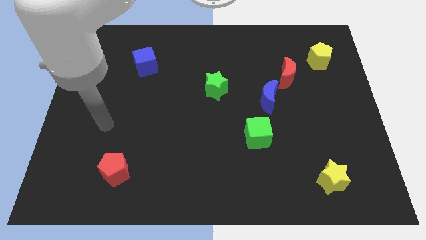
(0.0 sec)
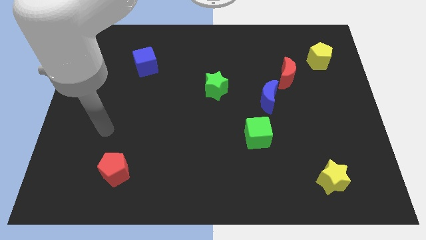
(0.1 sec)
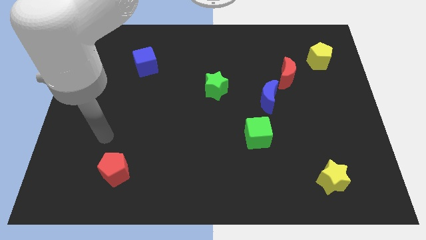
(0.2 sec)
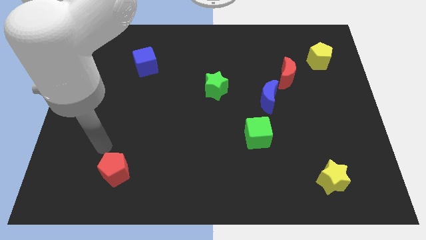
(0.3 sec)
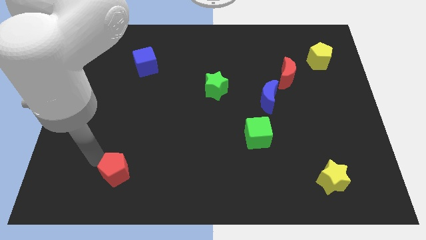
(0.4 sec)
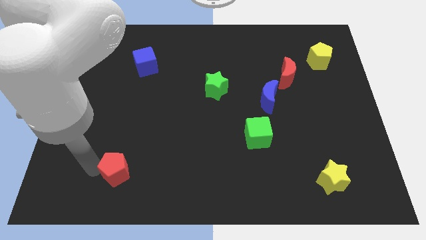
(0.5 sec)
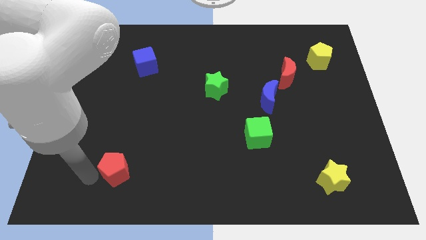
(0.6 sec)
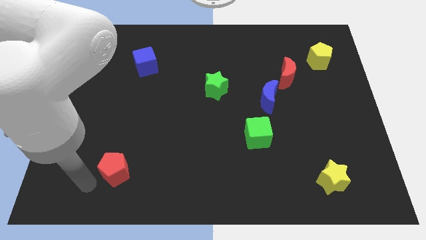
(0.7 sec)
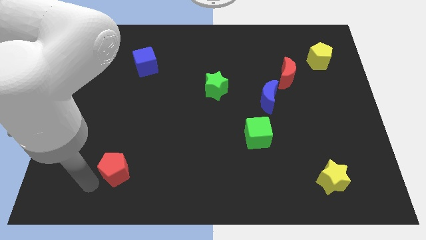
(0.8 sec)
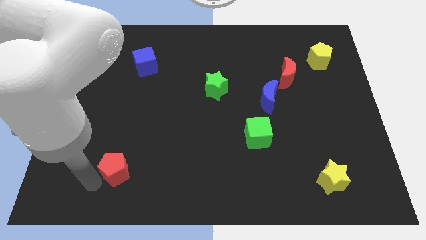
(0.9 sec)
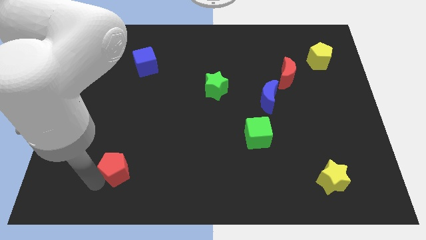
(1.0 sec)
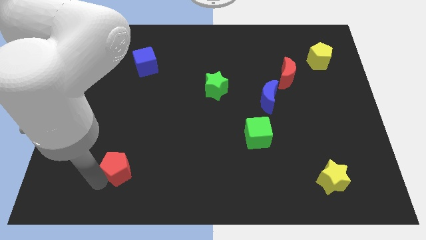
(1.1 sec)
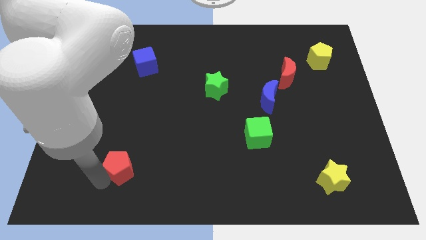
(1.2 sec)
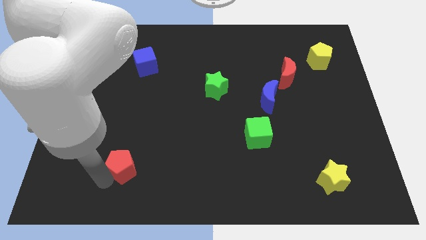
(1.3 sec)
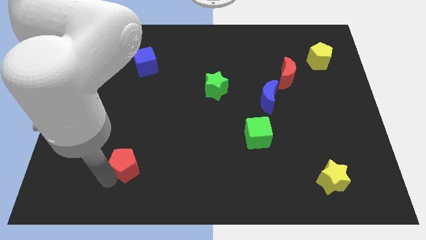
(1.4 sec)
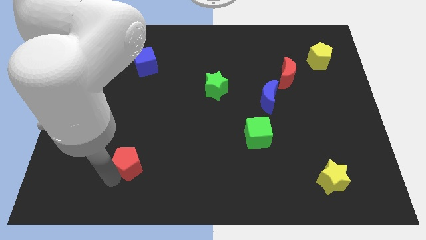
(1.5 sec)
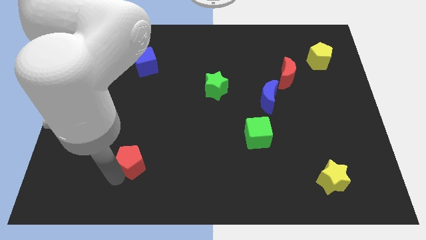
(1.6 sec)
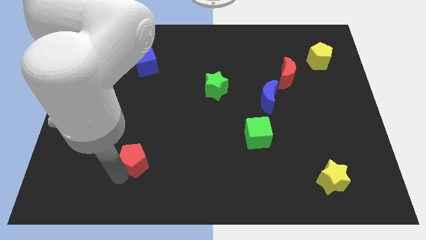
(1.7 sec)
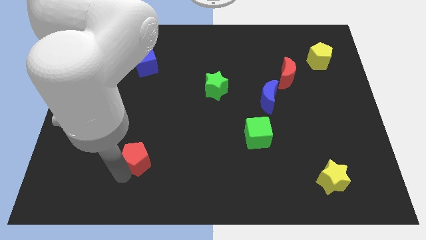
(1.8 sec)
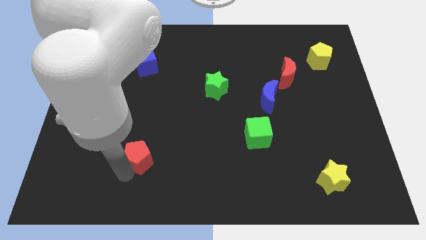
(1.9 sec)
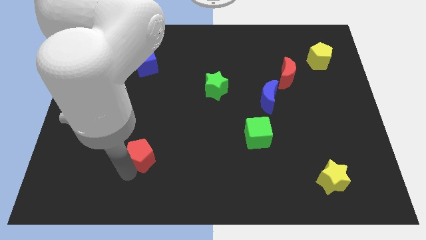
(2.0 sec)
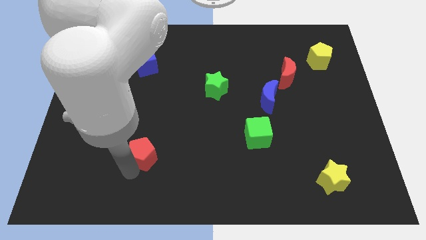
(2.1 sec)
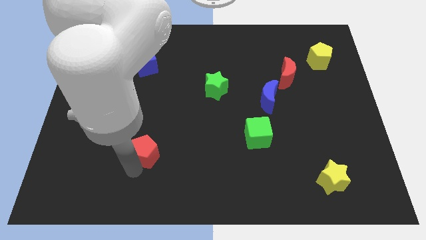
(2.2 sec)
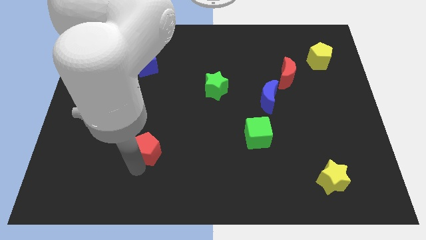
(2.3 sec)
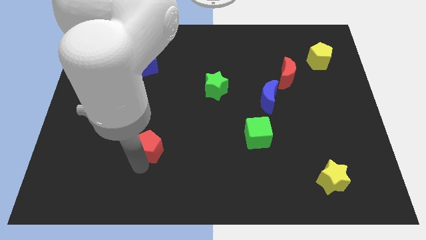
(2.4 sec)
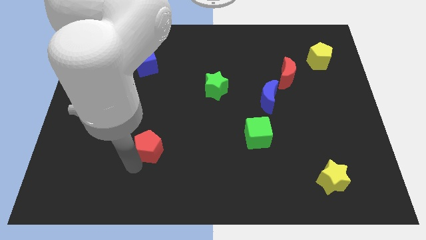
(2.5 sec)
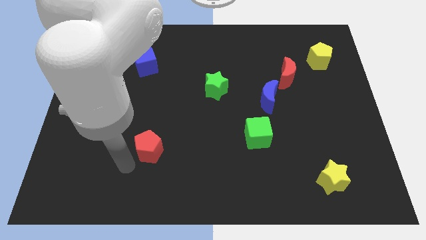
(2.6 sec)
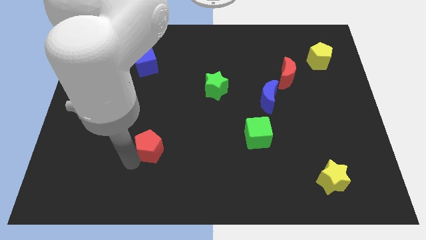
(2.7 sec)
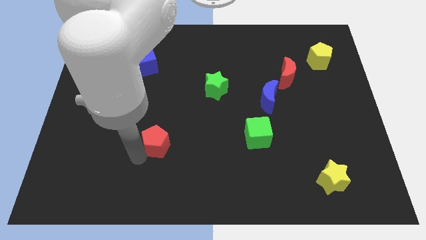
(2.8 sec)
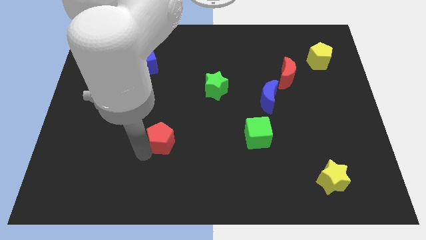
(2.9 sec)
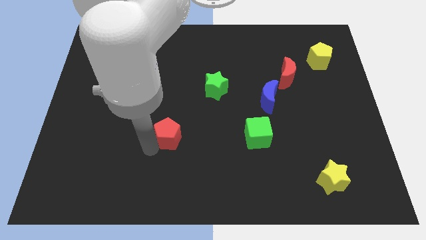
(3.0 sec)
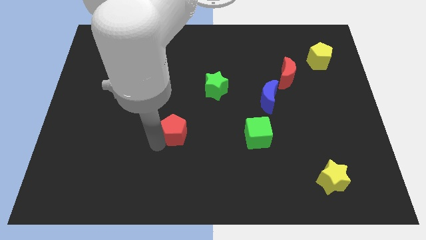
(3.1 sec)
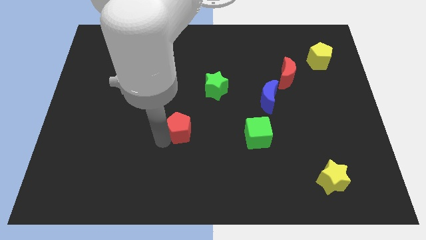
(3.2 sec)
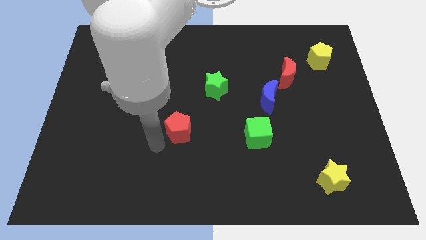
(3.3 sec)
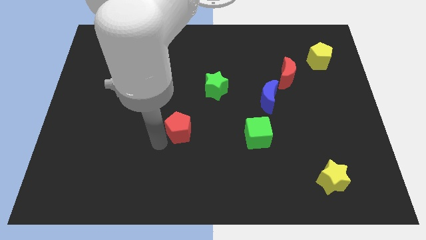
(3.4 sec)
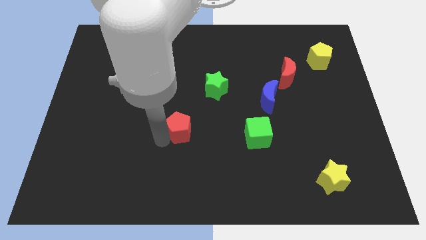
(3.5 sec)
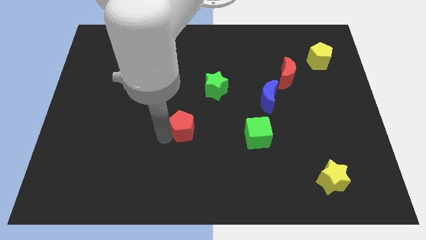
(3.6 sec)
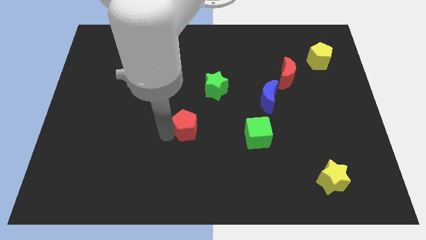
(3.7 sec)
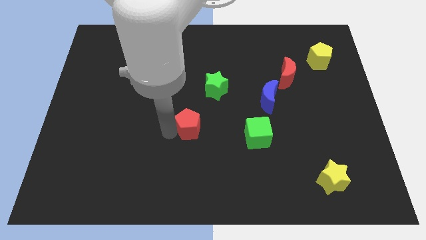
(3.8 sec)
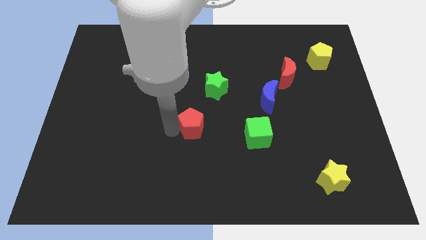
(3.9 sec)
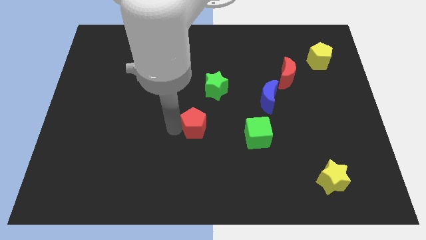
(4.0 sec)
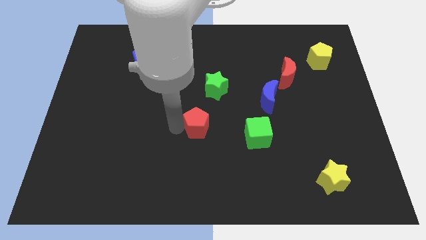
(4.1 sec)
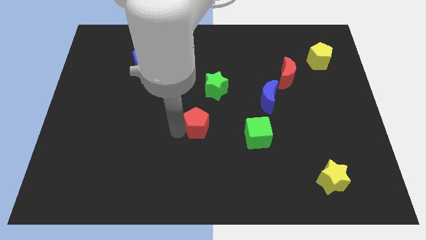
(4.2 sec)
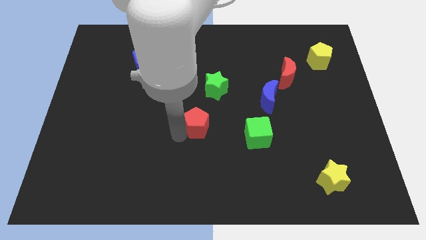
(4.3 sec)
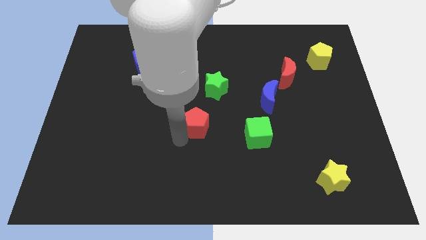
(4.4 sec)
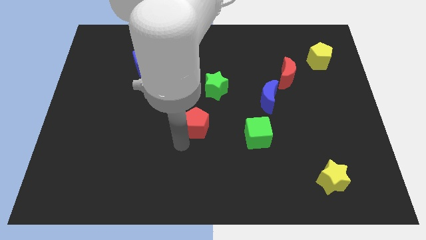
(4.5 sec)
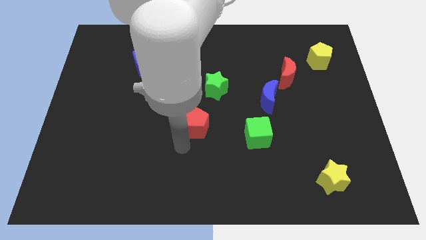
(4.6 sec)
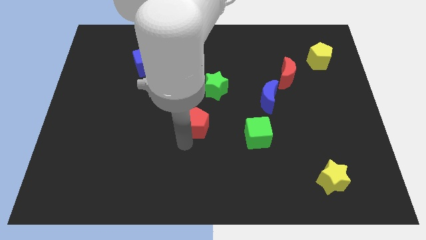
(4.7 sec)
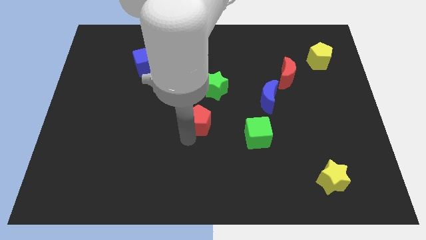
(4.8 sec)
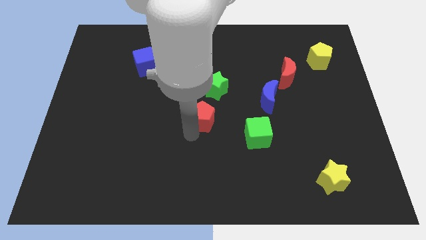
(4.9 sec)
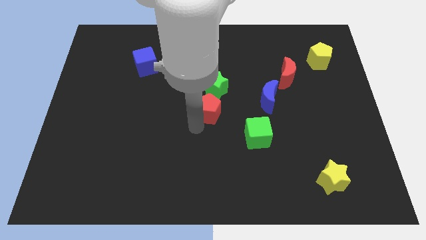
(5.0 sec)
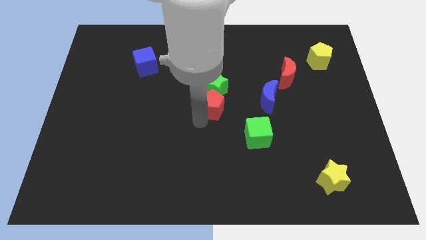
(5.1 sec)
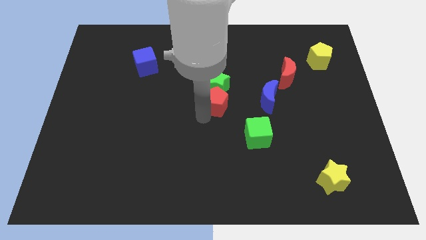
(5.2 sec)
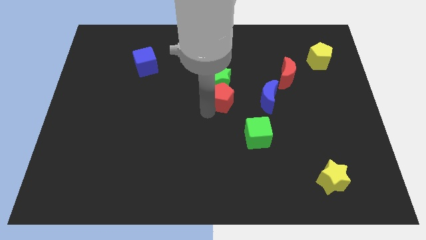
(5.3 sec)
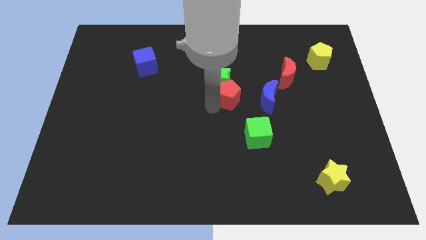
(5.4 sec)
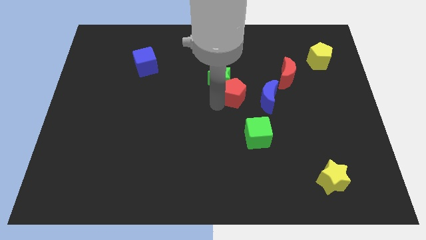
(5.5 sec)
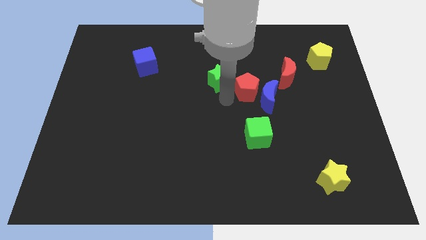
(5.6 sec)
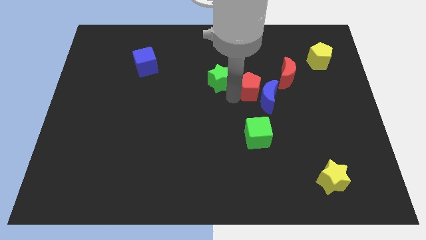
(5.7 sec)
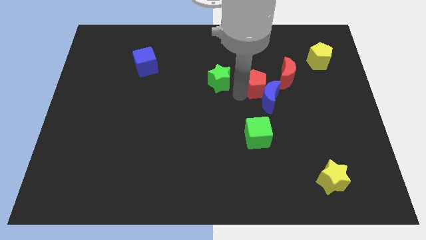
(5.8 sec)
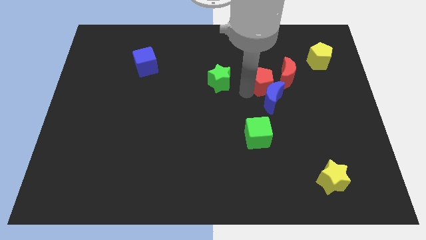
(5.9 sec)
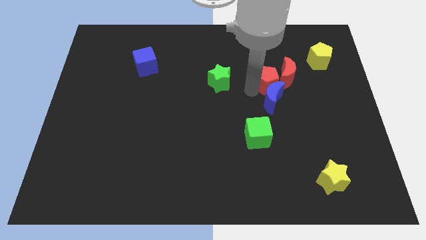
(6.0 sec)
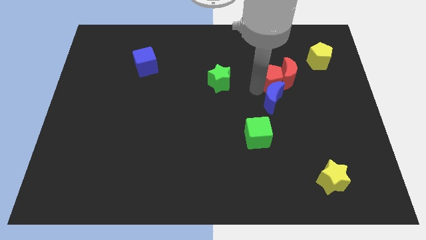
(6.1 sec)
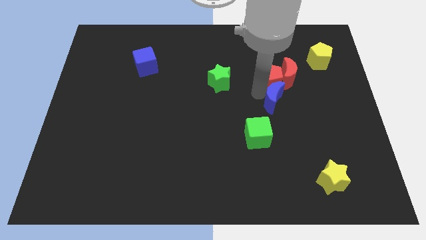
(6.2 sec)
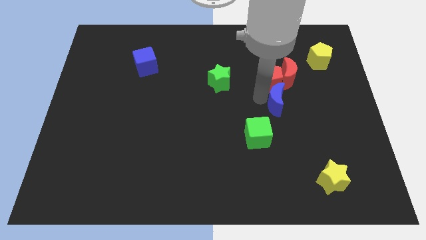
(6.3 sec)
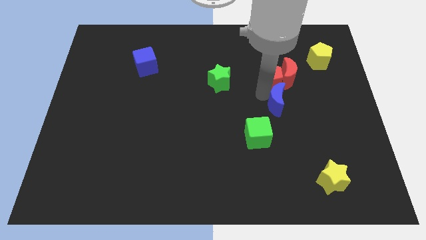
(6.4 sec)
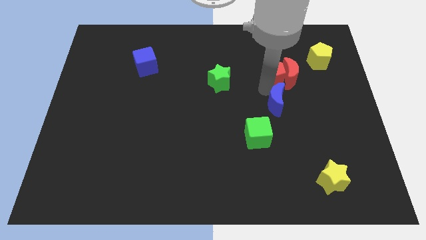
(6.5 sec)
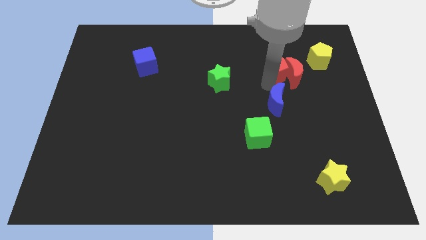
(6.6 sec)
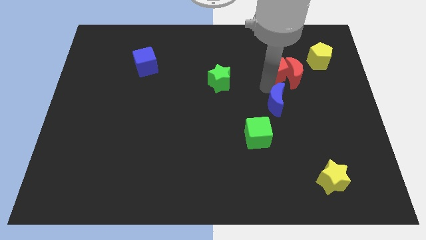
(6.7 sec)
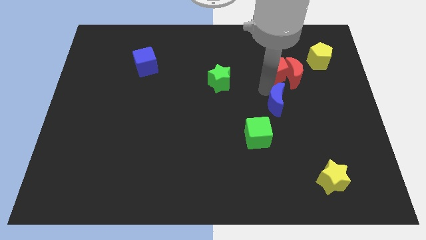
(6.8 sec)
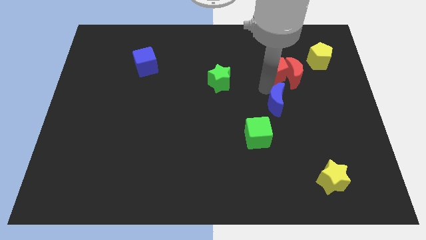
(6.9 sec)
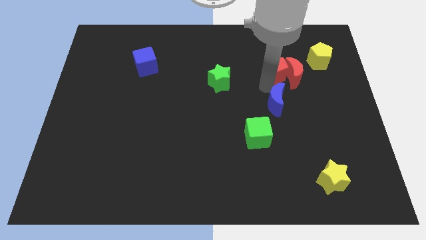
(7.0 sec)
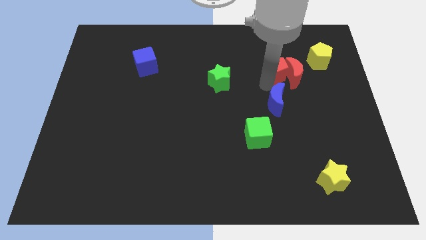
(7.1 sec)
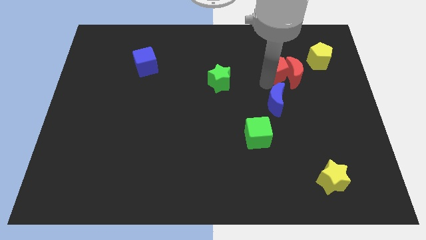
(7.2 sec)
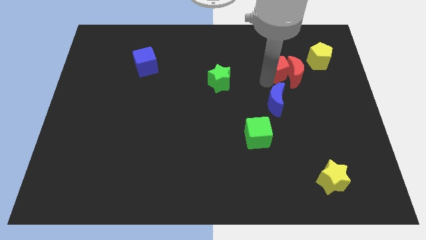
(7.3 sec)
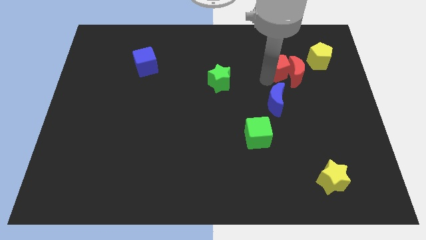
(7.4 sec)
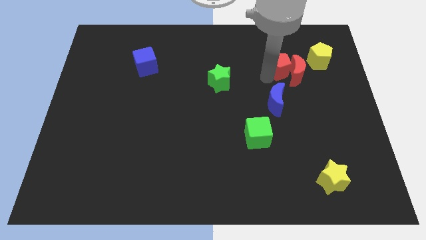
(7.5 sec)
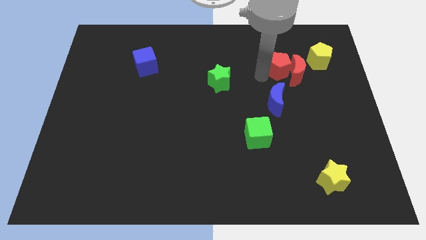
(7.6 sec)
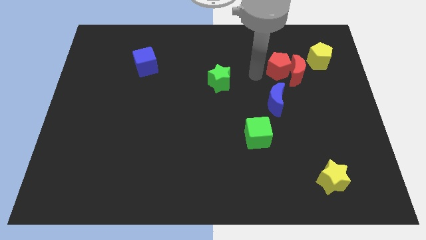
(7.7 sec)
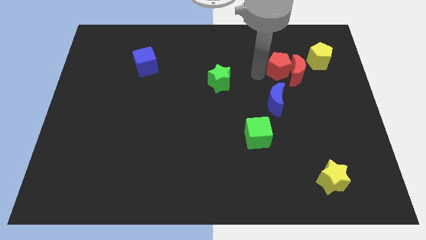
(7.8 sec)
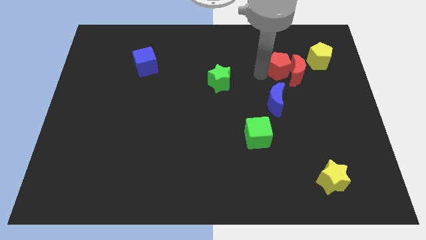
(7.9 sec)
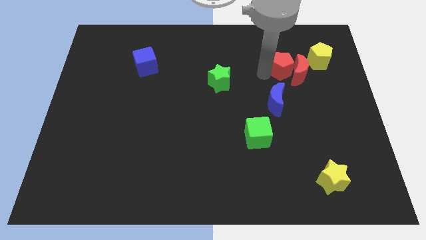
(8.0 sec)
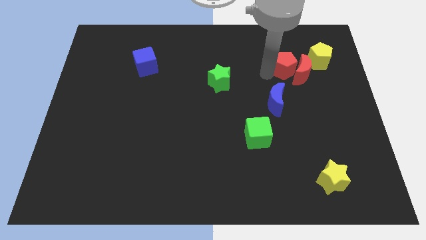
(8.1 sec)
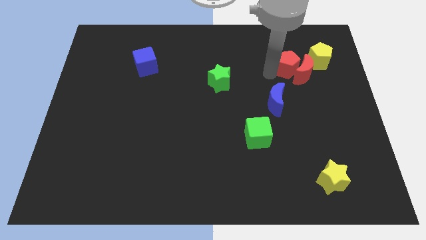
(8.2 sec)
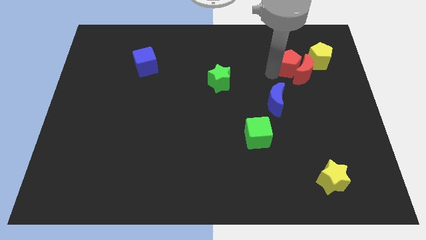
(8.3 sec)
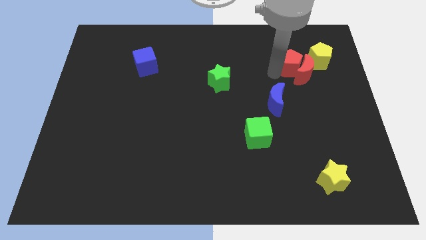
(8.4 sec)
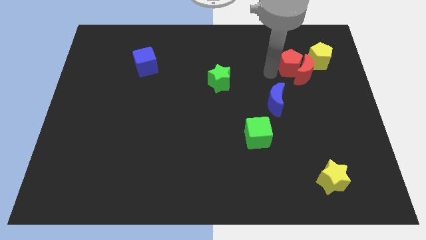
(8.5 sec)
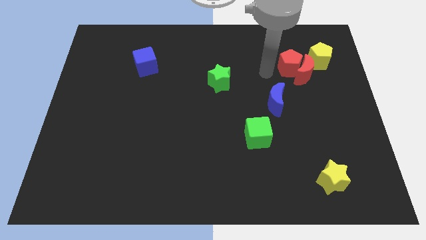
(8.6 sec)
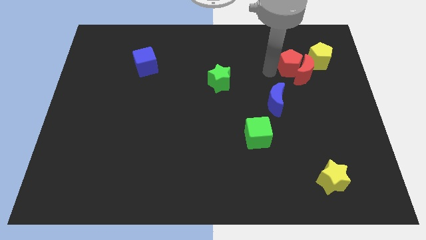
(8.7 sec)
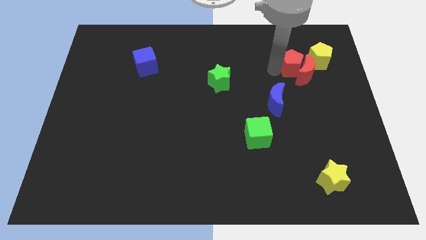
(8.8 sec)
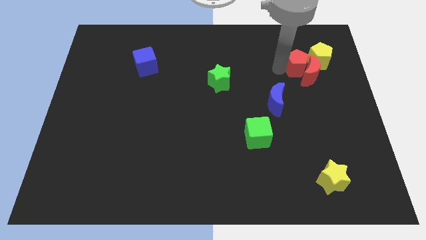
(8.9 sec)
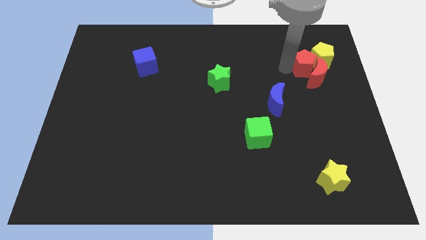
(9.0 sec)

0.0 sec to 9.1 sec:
move the red pentagon towards the yellow pentagon
